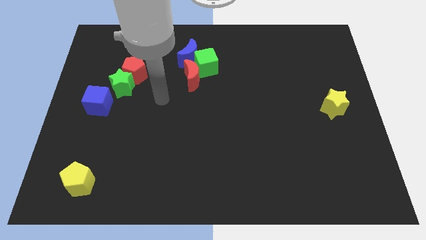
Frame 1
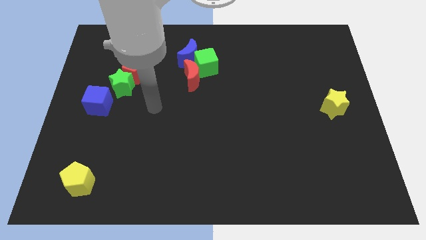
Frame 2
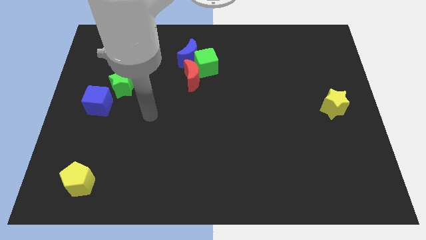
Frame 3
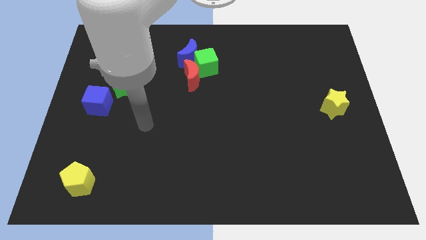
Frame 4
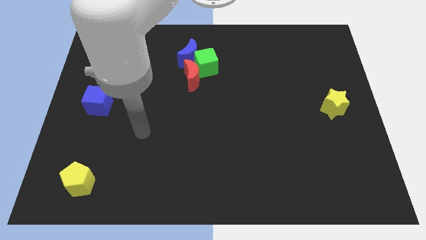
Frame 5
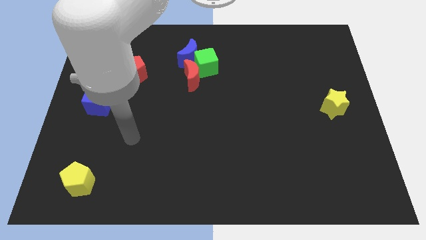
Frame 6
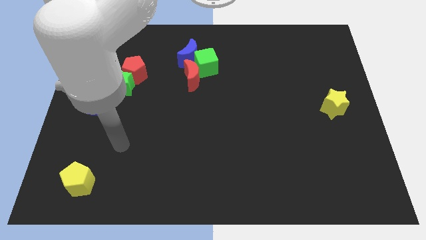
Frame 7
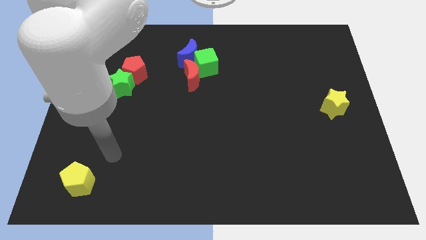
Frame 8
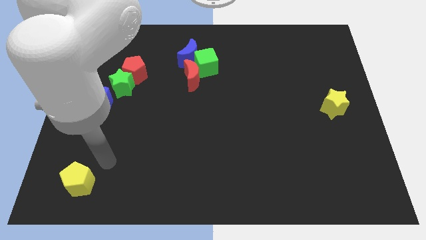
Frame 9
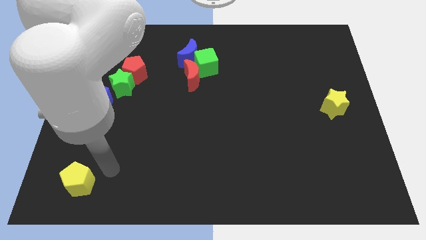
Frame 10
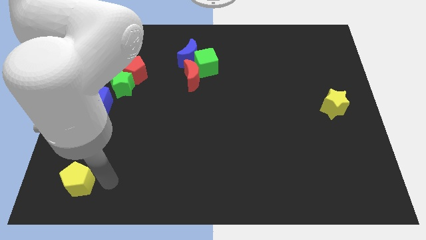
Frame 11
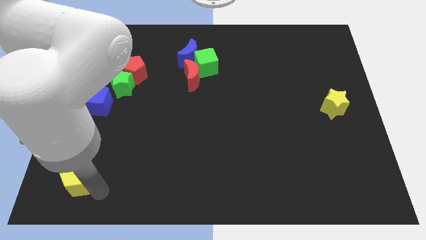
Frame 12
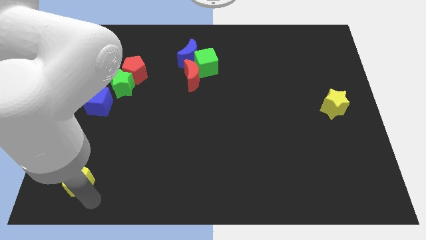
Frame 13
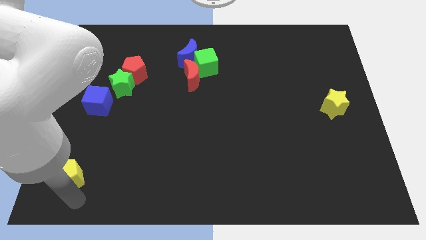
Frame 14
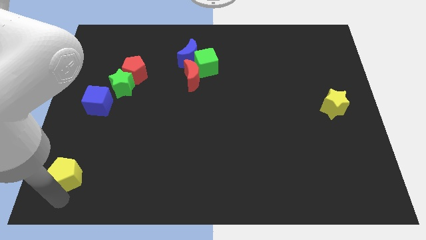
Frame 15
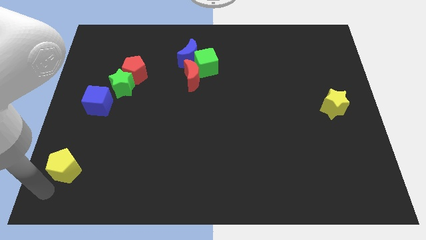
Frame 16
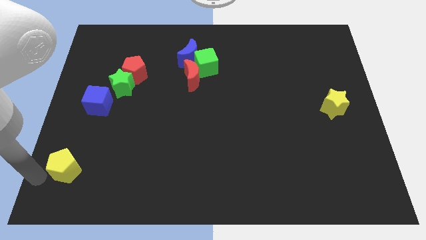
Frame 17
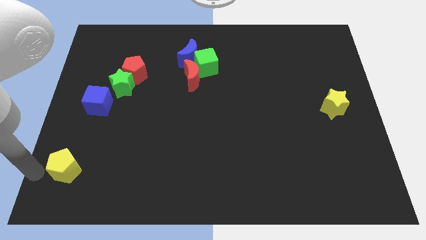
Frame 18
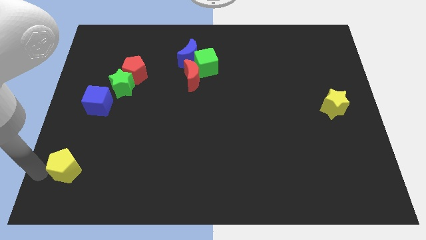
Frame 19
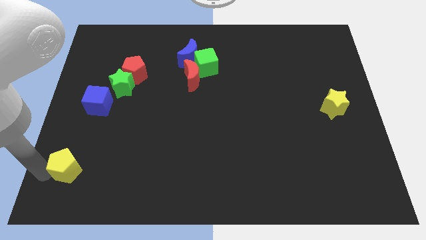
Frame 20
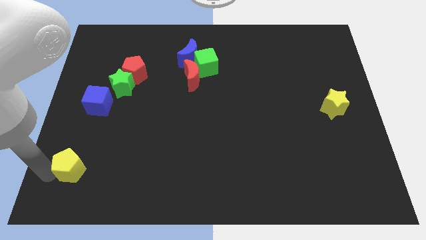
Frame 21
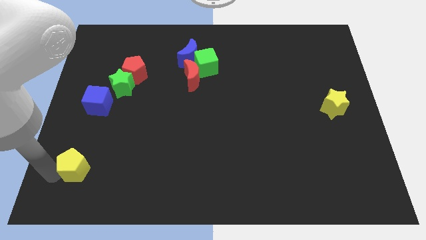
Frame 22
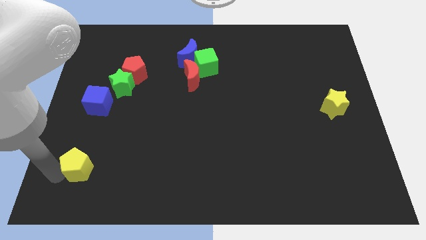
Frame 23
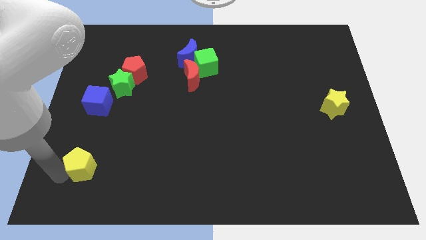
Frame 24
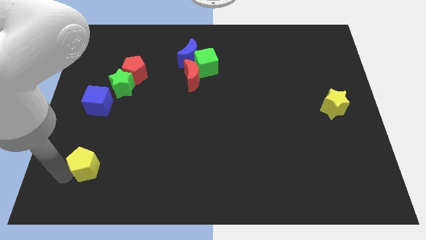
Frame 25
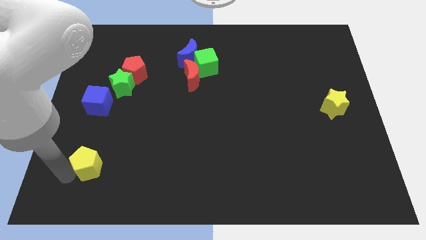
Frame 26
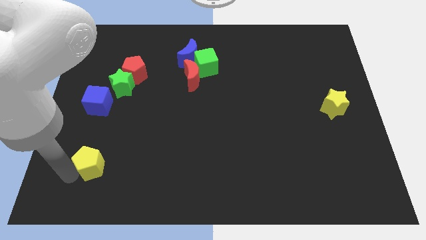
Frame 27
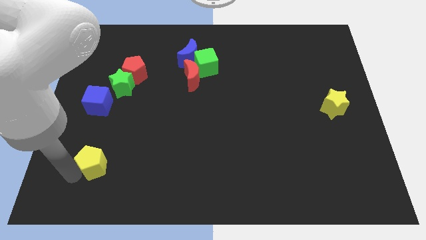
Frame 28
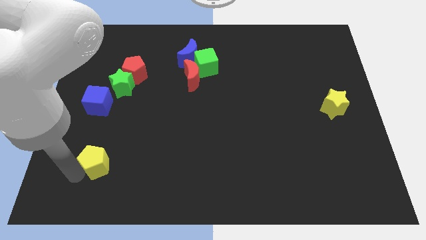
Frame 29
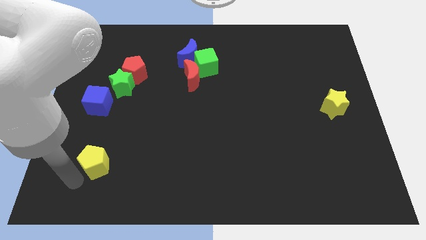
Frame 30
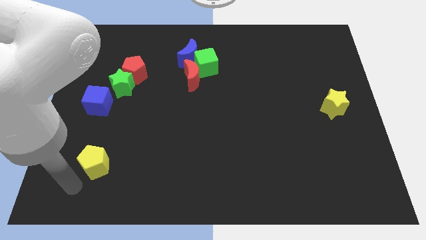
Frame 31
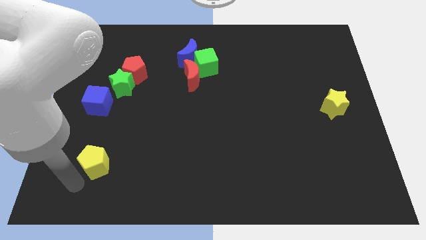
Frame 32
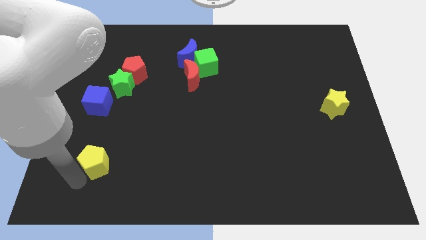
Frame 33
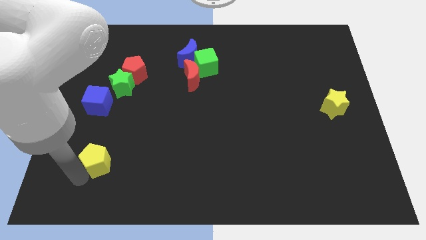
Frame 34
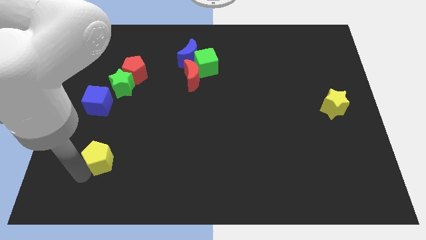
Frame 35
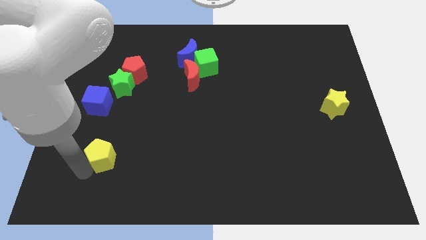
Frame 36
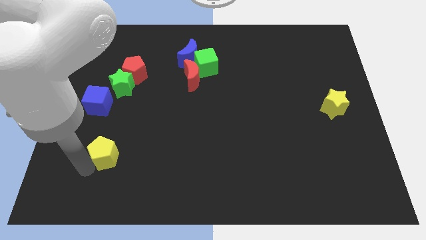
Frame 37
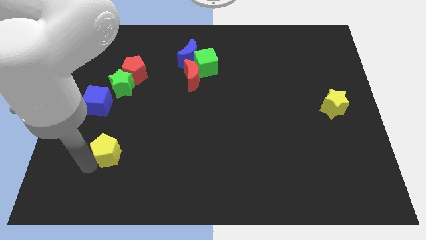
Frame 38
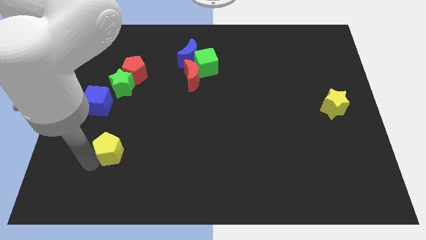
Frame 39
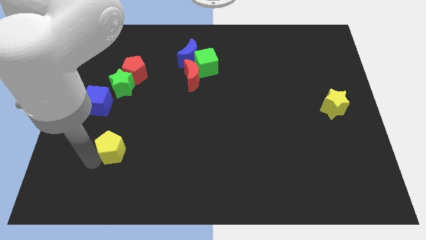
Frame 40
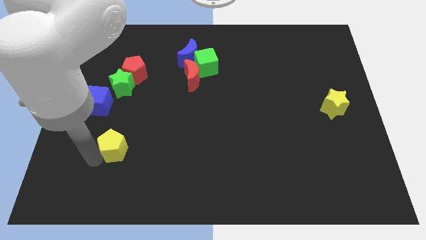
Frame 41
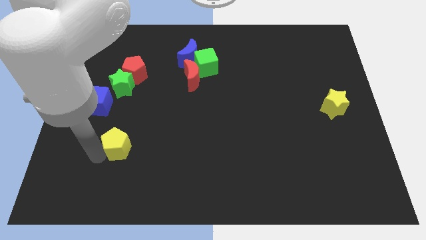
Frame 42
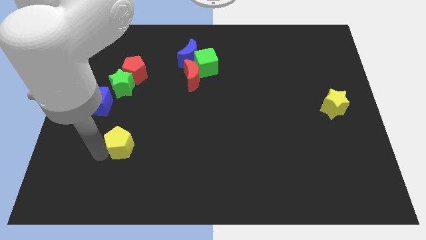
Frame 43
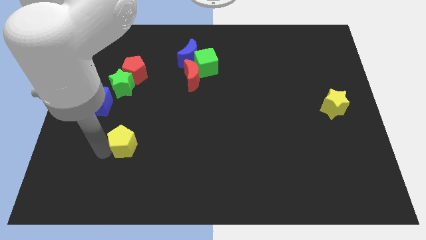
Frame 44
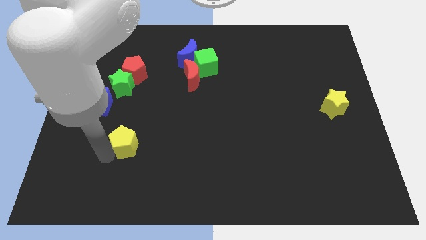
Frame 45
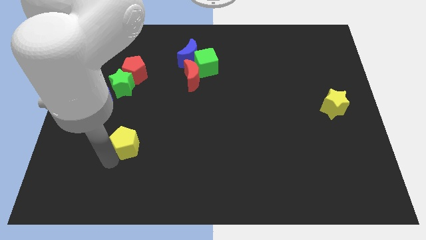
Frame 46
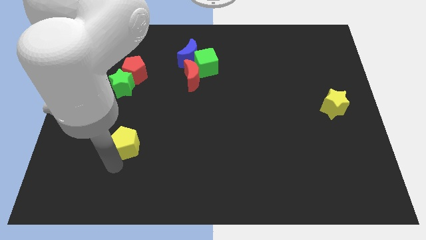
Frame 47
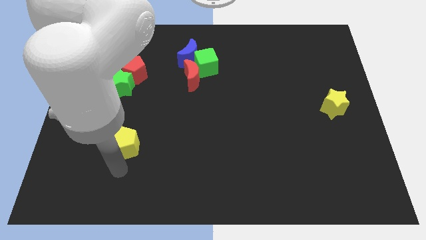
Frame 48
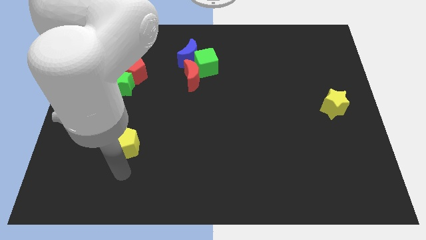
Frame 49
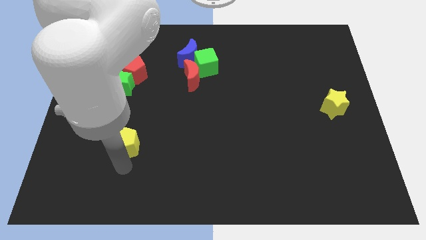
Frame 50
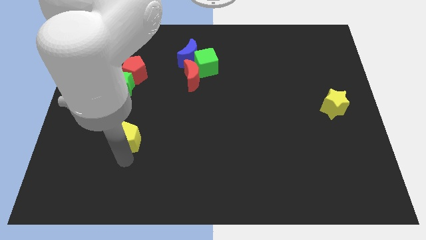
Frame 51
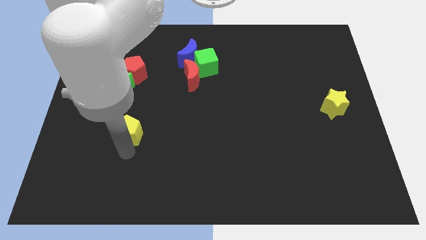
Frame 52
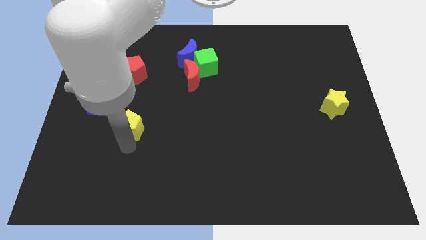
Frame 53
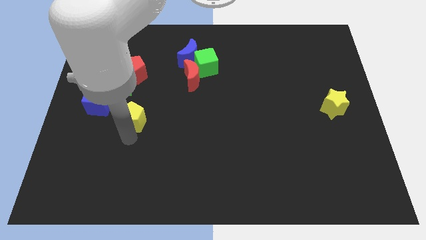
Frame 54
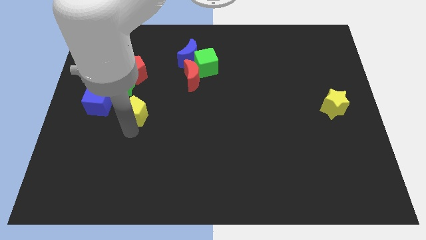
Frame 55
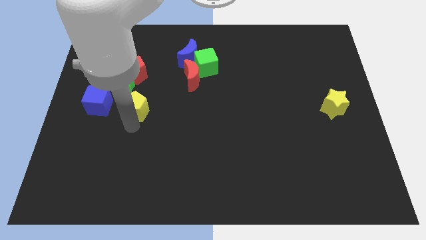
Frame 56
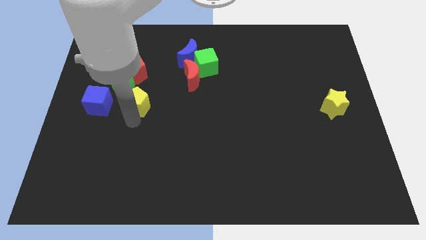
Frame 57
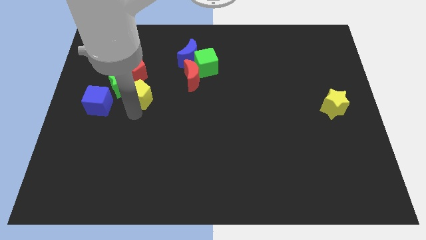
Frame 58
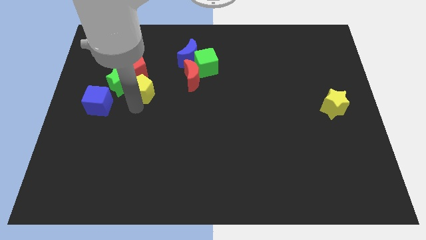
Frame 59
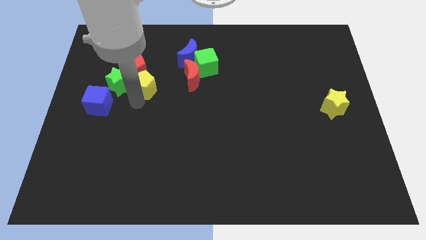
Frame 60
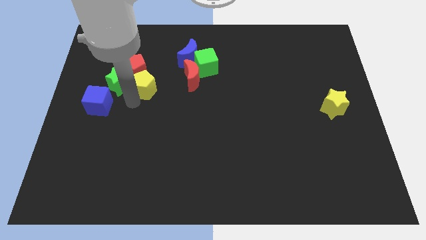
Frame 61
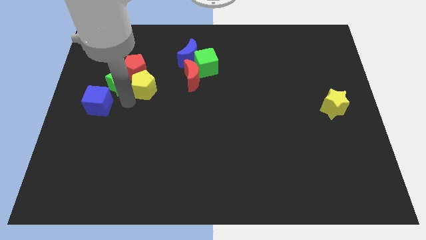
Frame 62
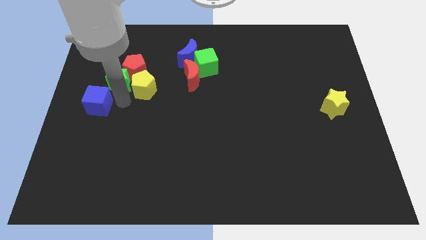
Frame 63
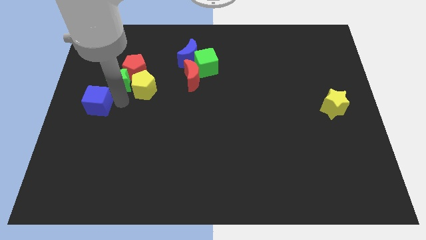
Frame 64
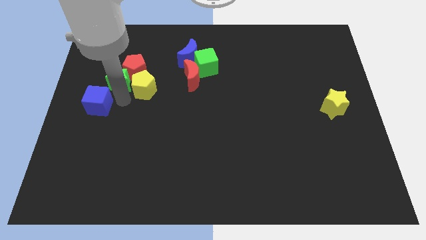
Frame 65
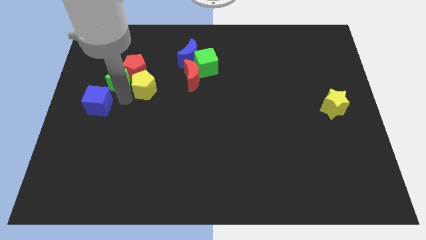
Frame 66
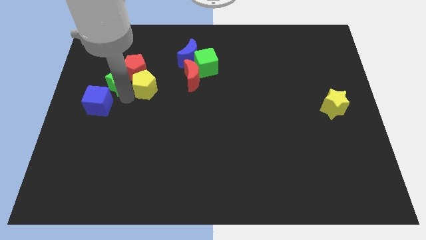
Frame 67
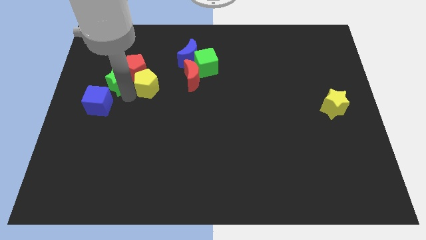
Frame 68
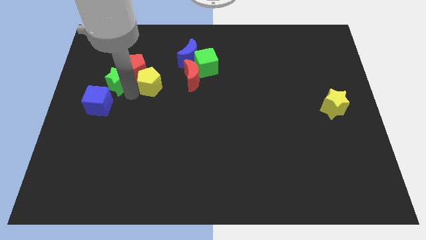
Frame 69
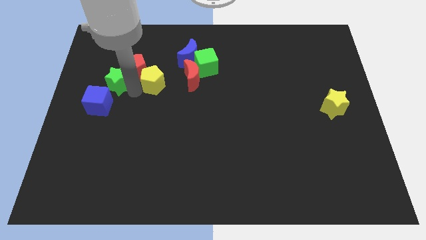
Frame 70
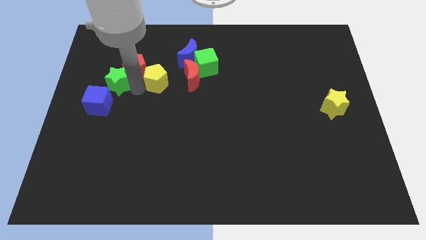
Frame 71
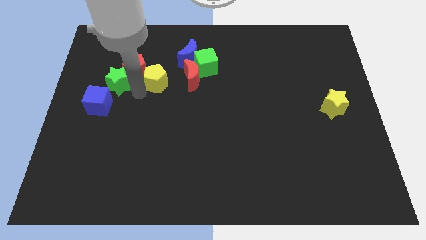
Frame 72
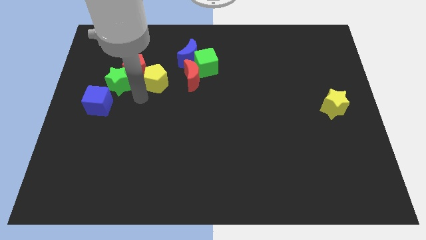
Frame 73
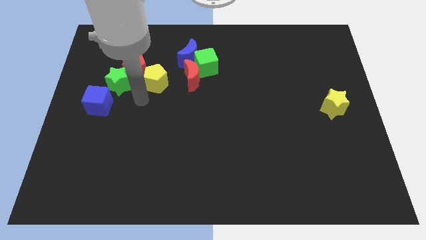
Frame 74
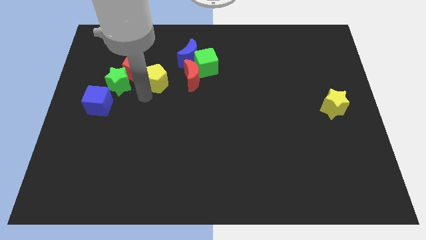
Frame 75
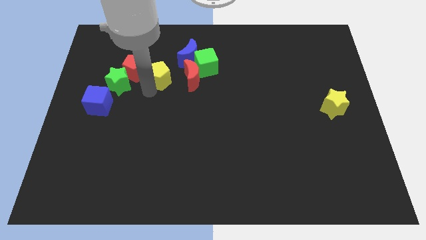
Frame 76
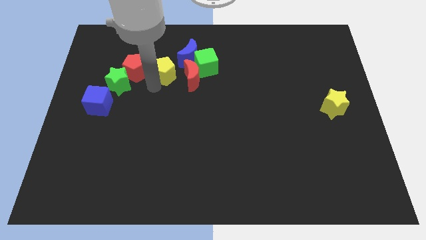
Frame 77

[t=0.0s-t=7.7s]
move the yellow pentagon diagonally up and to the left of the red moon
